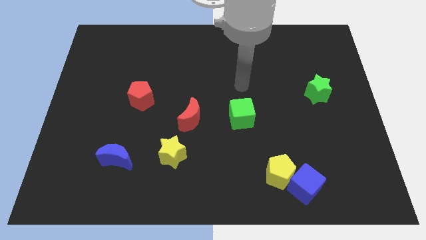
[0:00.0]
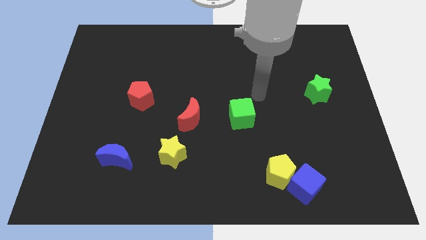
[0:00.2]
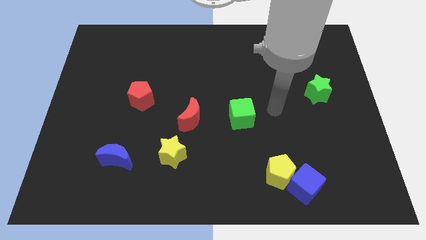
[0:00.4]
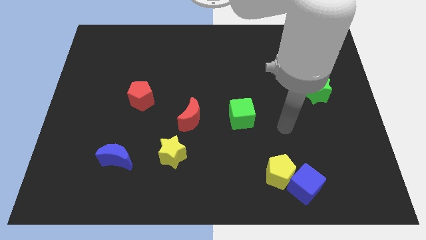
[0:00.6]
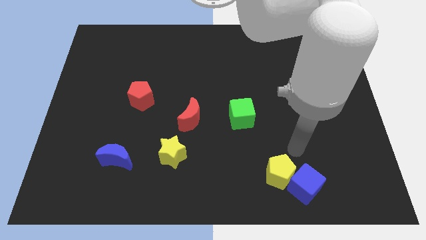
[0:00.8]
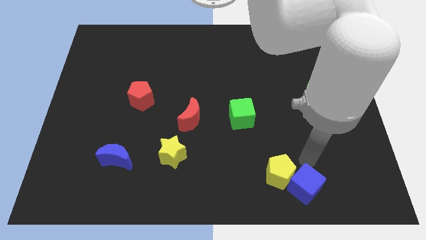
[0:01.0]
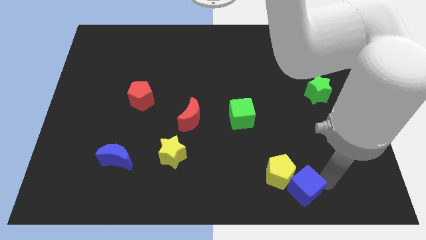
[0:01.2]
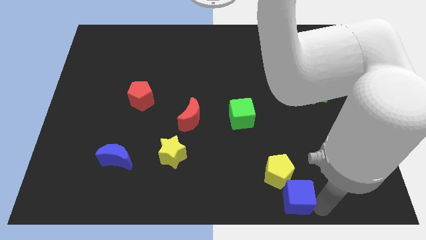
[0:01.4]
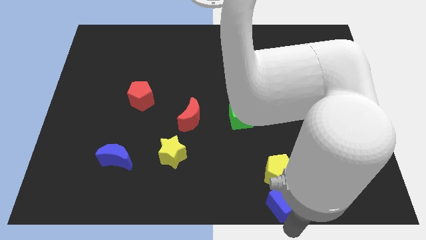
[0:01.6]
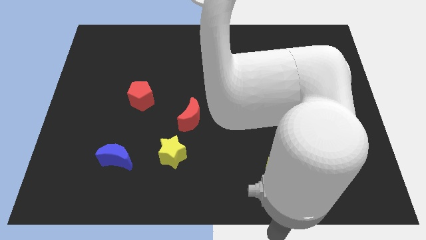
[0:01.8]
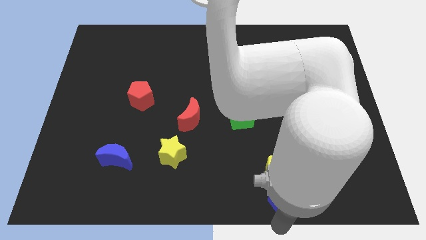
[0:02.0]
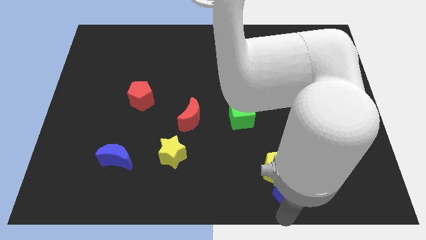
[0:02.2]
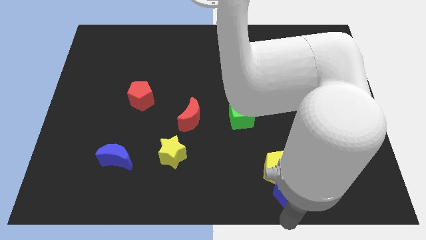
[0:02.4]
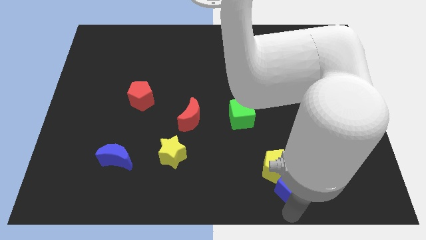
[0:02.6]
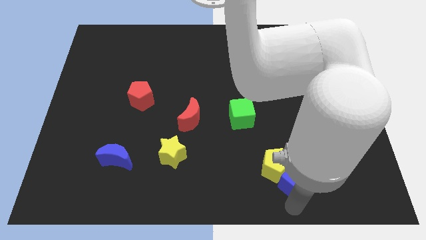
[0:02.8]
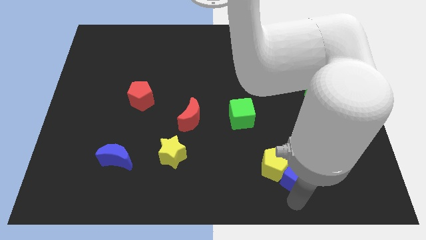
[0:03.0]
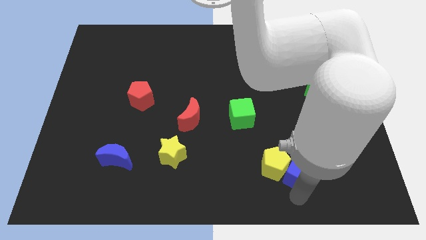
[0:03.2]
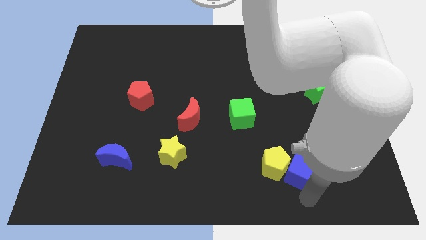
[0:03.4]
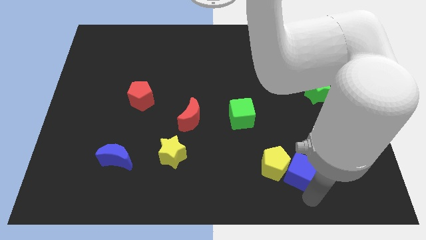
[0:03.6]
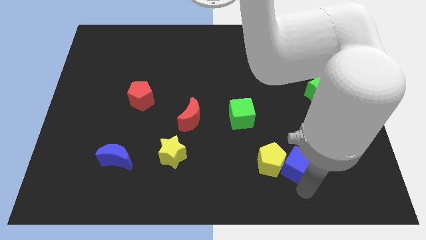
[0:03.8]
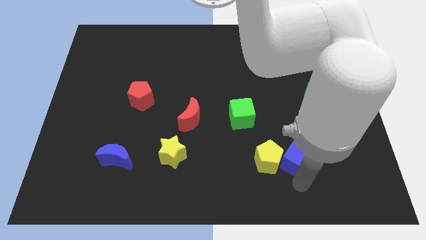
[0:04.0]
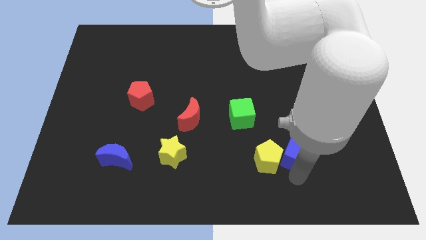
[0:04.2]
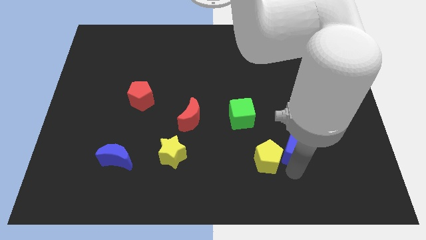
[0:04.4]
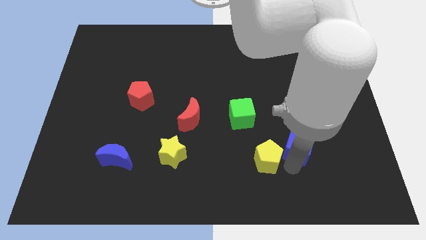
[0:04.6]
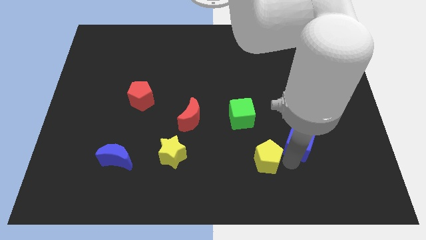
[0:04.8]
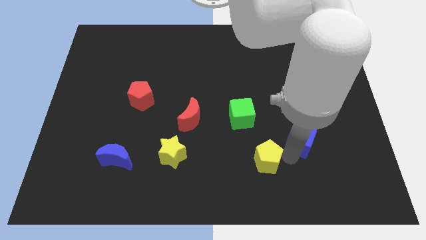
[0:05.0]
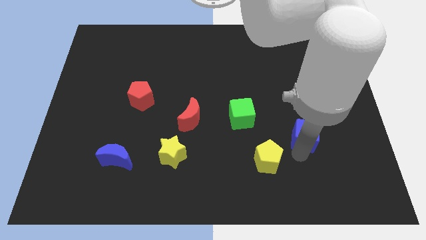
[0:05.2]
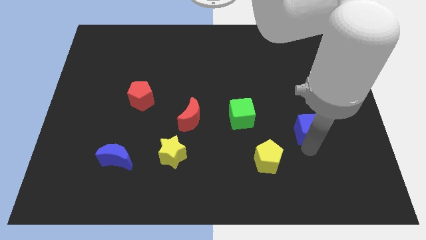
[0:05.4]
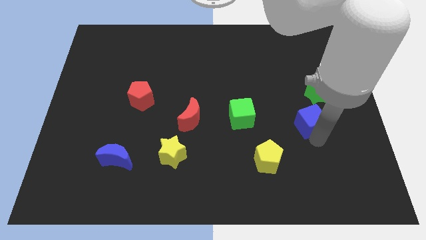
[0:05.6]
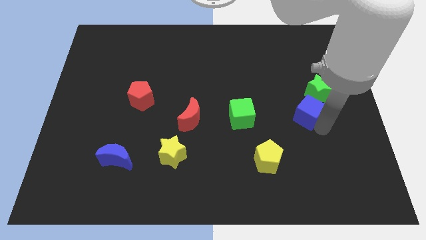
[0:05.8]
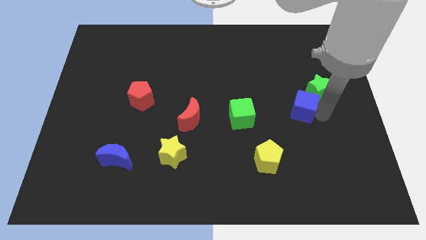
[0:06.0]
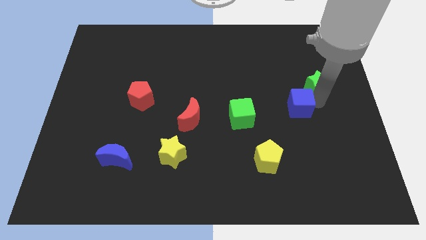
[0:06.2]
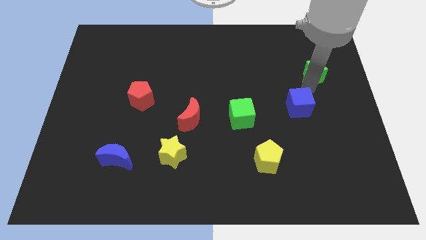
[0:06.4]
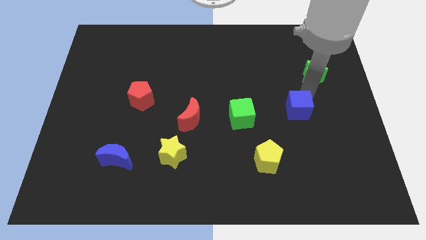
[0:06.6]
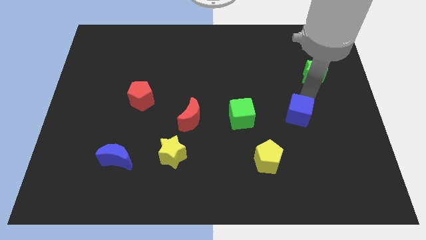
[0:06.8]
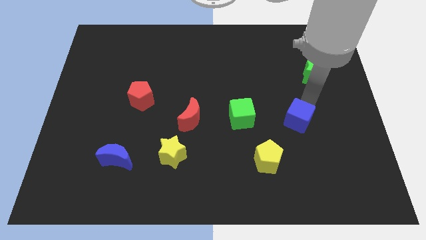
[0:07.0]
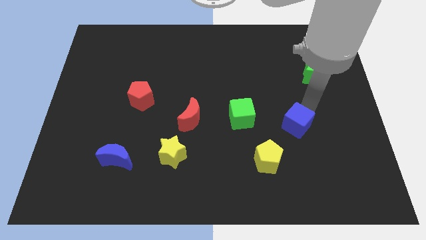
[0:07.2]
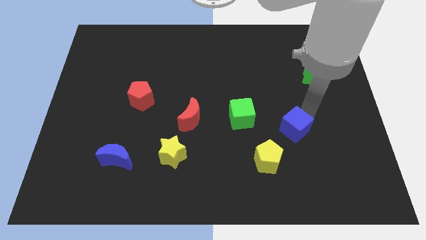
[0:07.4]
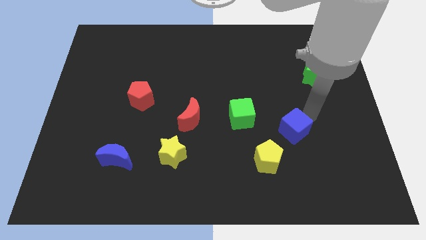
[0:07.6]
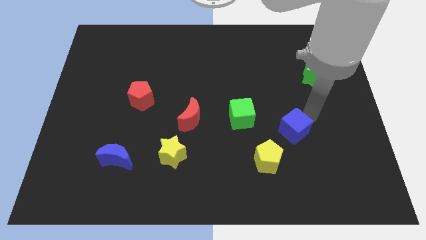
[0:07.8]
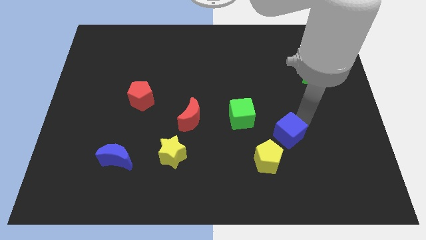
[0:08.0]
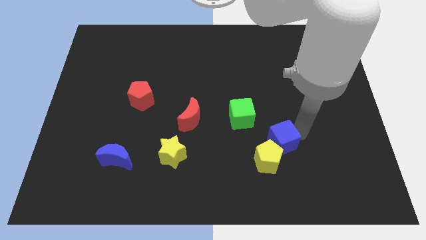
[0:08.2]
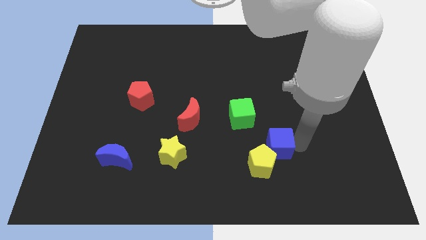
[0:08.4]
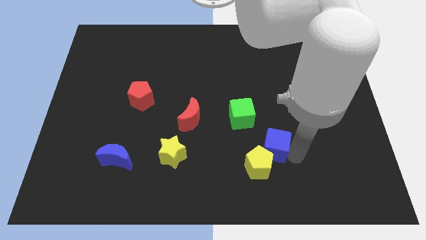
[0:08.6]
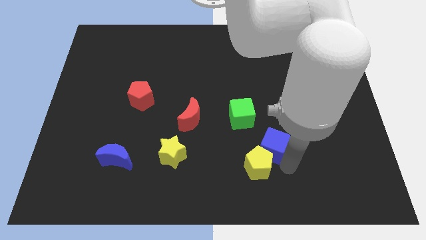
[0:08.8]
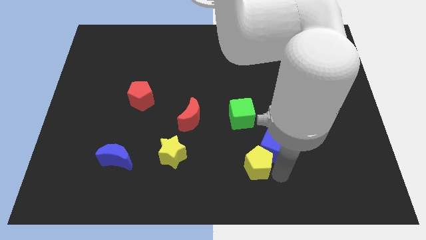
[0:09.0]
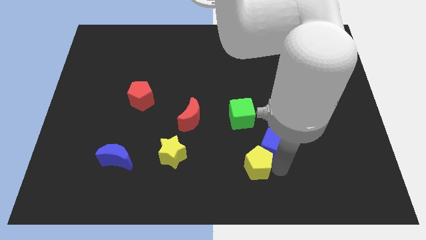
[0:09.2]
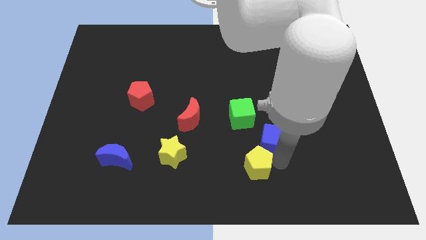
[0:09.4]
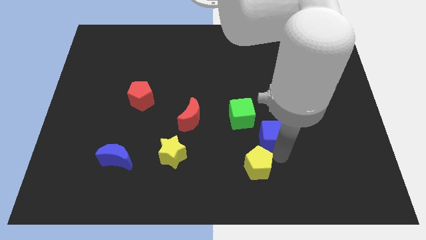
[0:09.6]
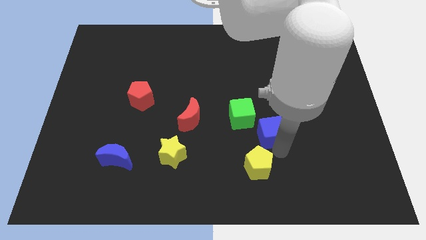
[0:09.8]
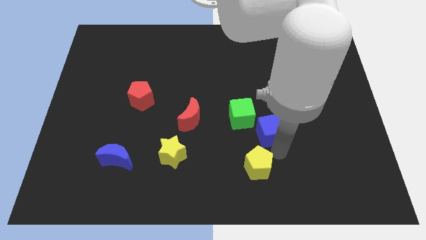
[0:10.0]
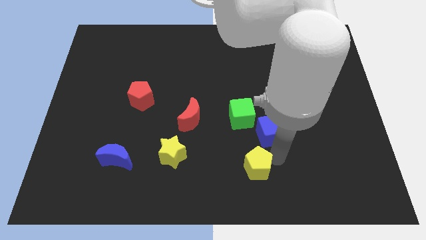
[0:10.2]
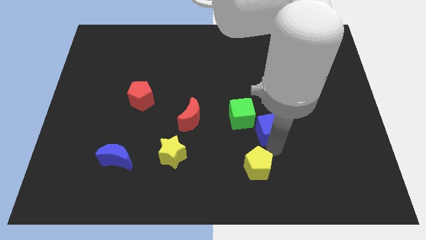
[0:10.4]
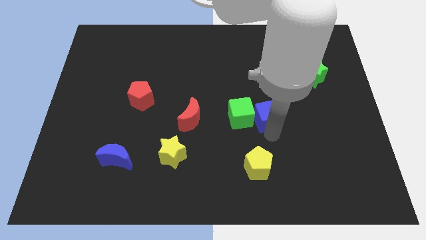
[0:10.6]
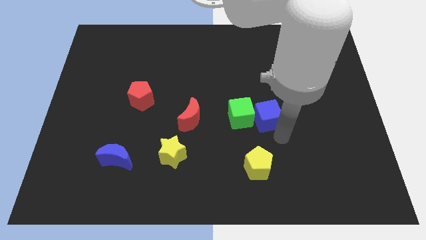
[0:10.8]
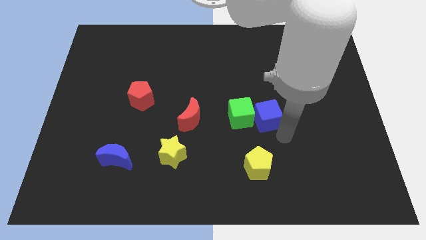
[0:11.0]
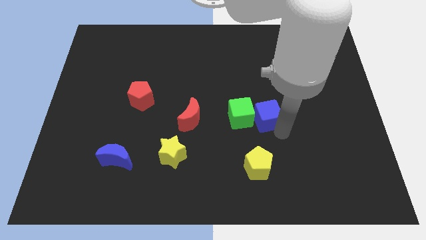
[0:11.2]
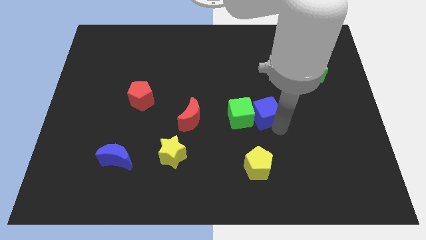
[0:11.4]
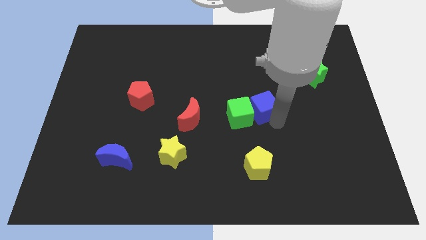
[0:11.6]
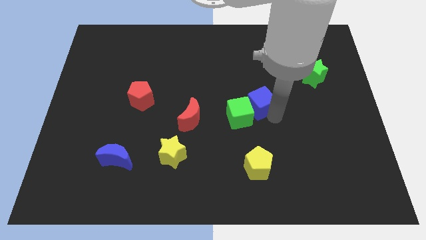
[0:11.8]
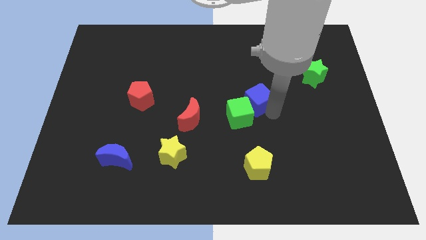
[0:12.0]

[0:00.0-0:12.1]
put the blue cube to the top of the green cube
